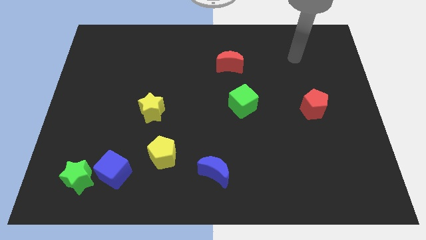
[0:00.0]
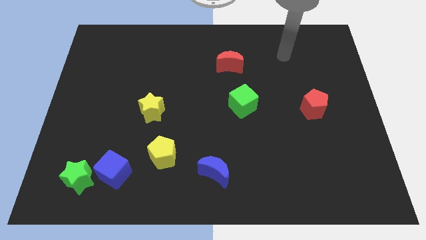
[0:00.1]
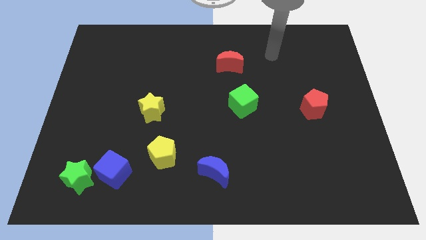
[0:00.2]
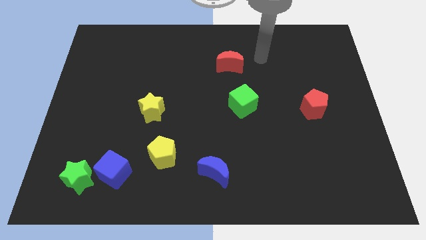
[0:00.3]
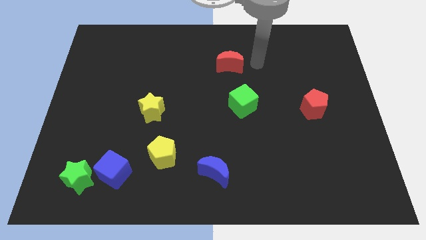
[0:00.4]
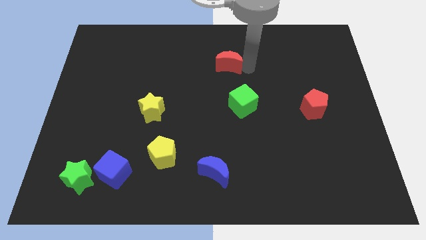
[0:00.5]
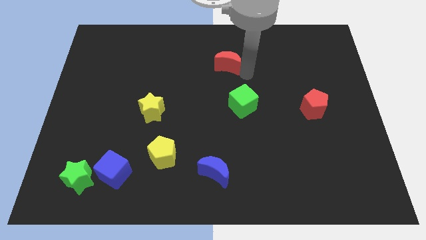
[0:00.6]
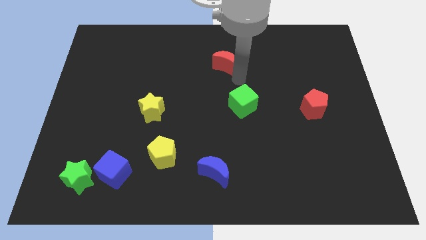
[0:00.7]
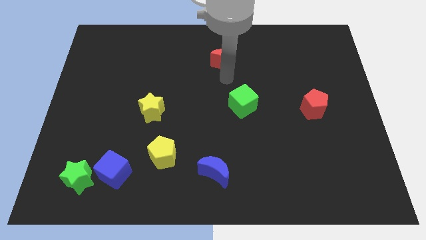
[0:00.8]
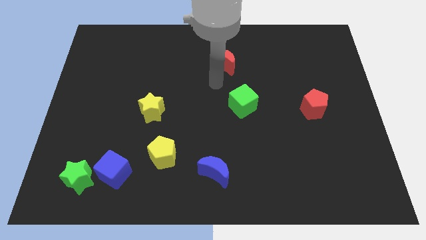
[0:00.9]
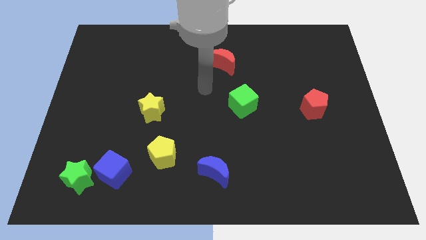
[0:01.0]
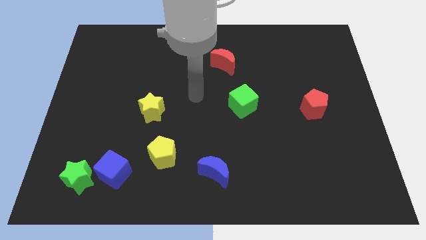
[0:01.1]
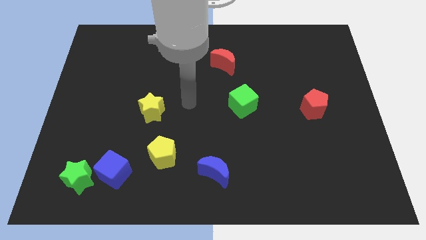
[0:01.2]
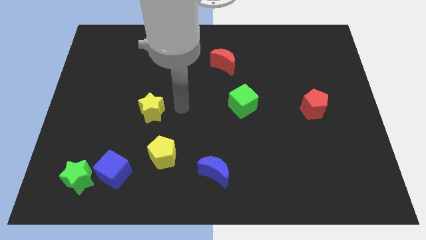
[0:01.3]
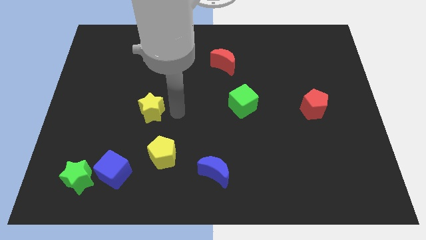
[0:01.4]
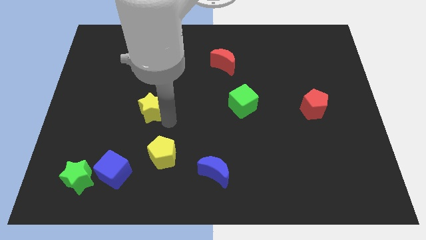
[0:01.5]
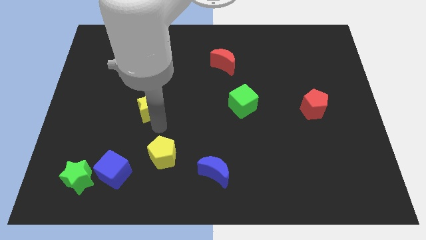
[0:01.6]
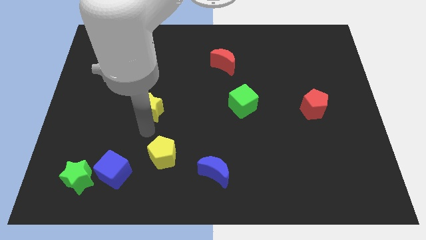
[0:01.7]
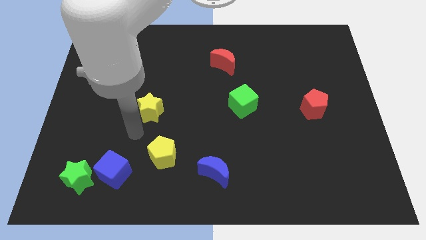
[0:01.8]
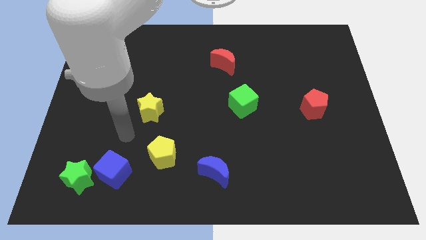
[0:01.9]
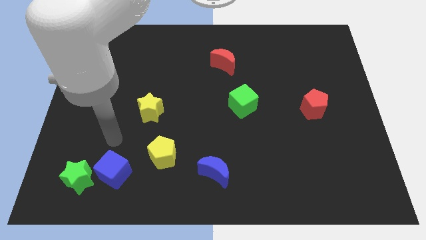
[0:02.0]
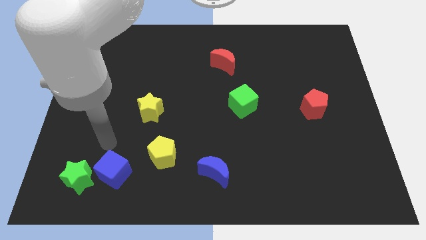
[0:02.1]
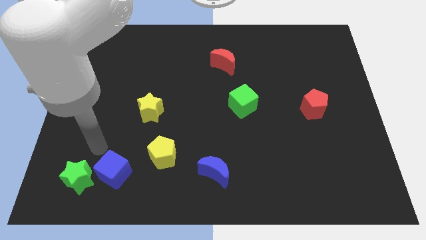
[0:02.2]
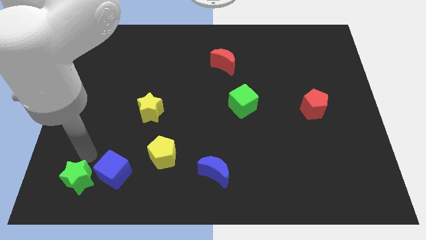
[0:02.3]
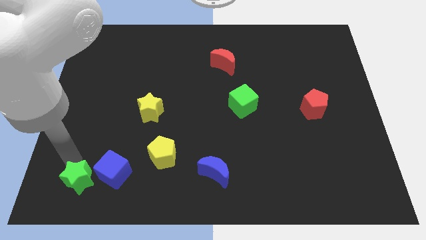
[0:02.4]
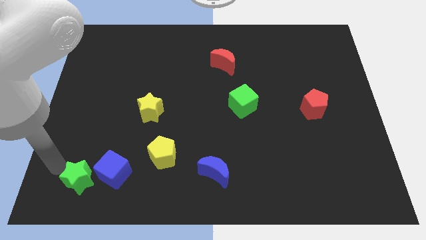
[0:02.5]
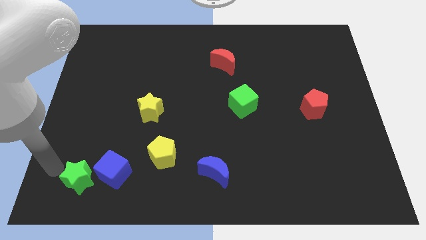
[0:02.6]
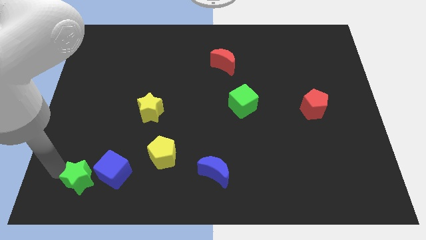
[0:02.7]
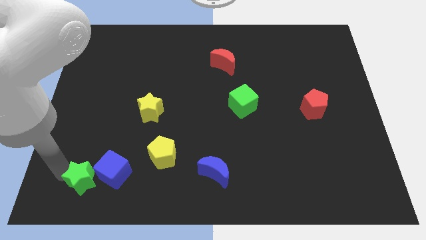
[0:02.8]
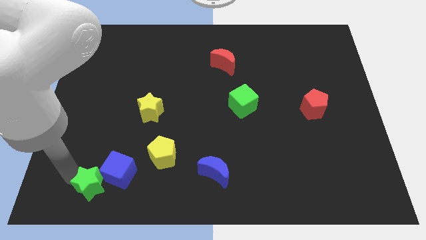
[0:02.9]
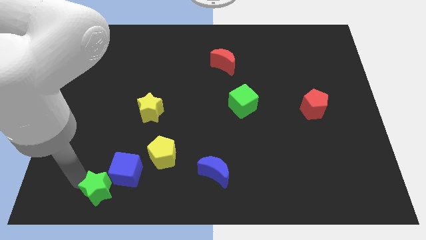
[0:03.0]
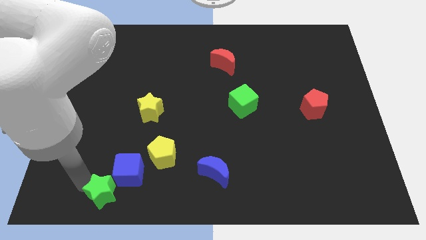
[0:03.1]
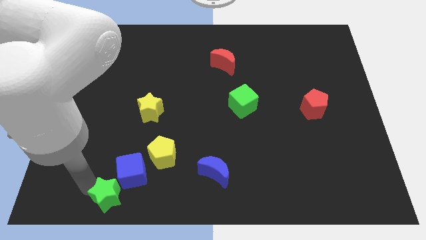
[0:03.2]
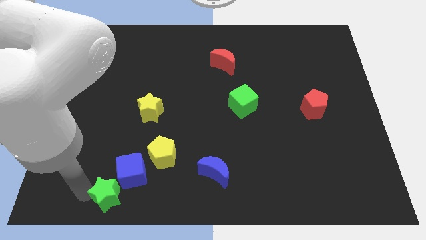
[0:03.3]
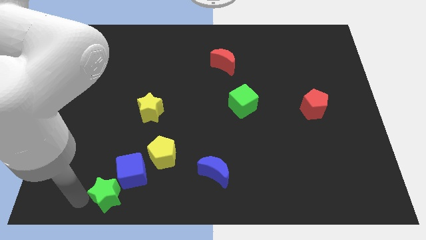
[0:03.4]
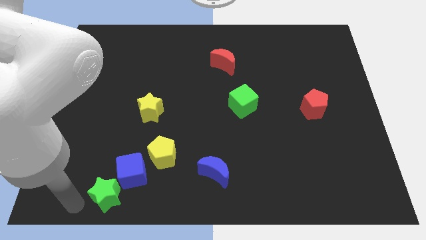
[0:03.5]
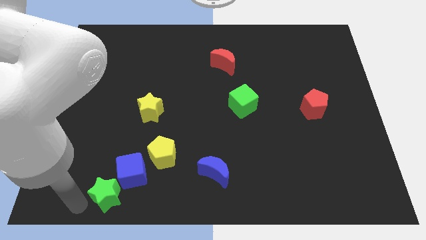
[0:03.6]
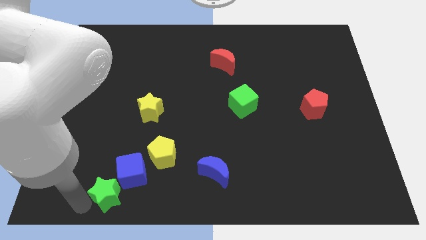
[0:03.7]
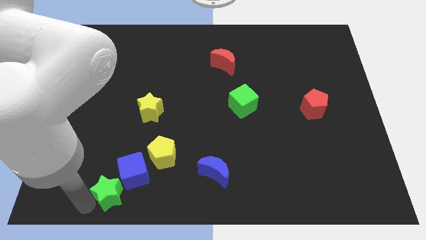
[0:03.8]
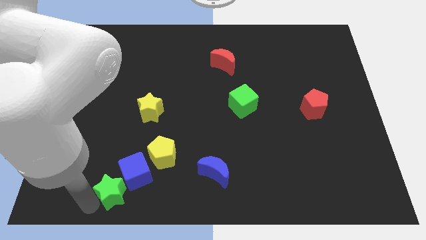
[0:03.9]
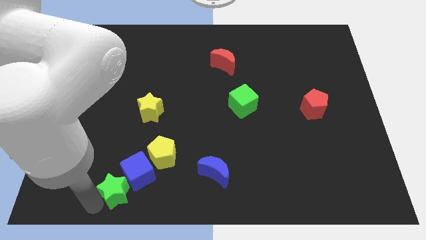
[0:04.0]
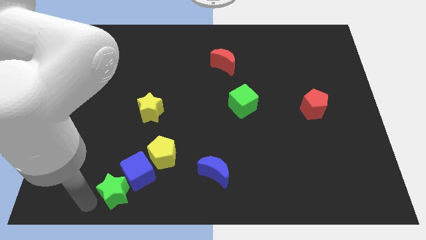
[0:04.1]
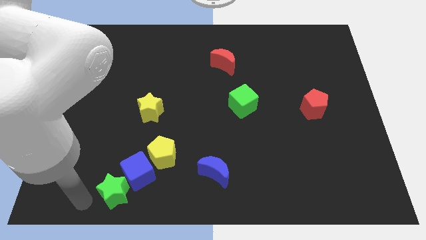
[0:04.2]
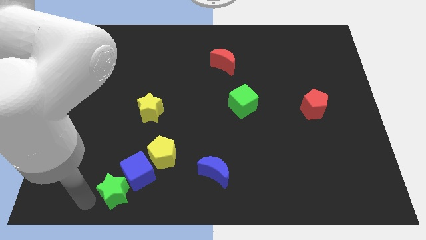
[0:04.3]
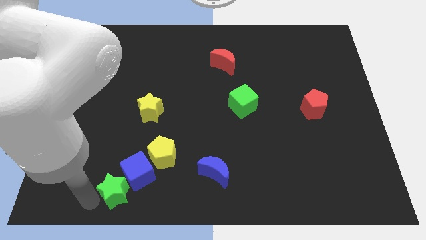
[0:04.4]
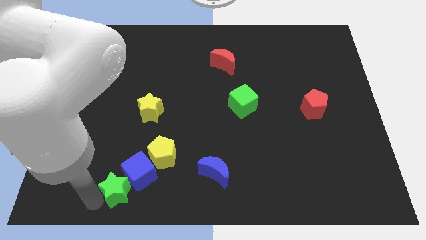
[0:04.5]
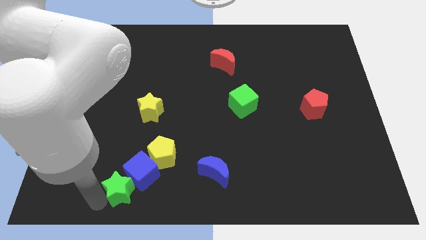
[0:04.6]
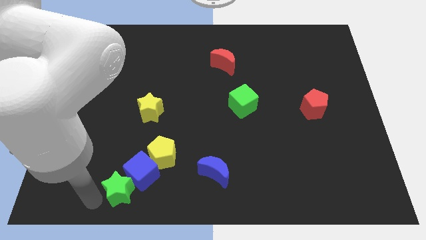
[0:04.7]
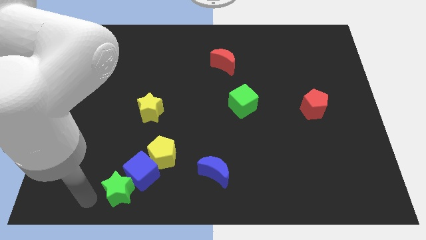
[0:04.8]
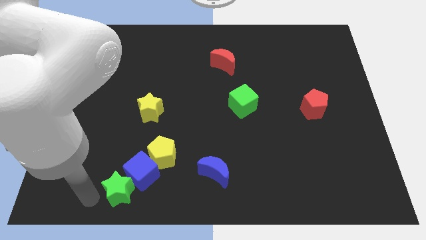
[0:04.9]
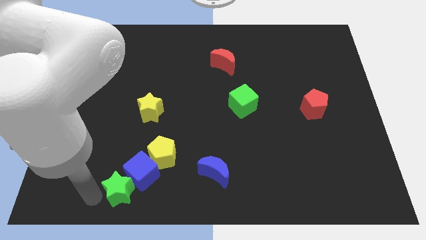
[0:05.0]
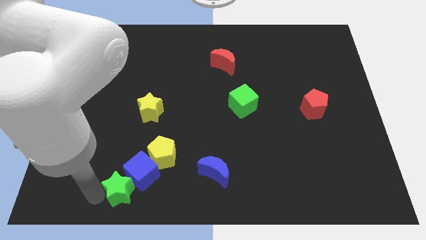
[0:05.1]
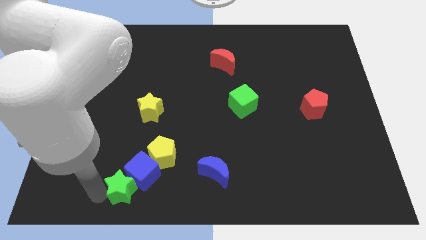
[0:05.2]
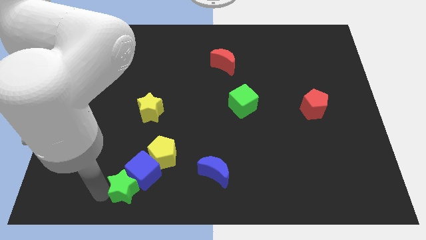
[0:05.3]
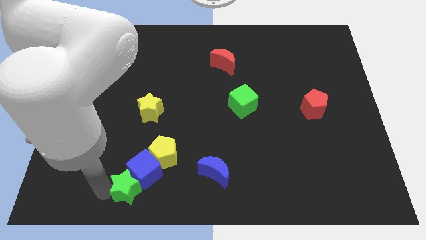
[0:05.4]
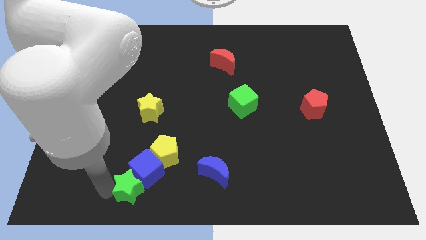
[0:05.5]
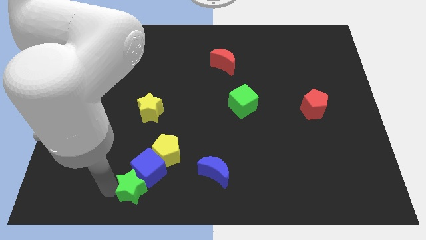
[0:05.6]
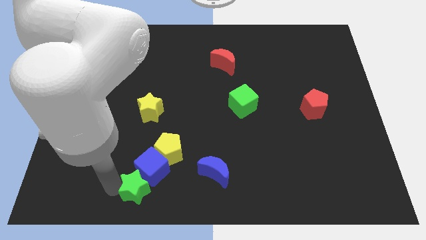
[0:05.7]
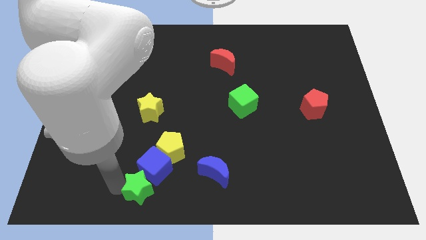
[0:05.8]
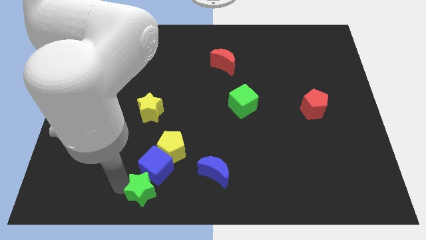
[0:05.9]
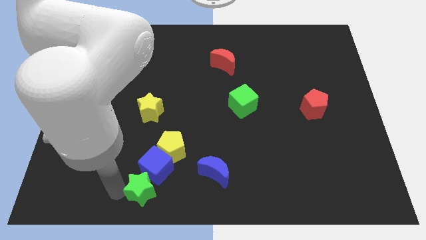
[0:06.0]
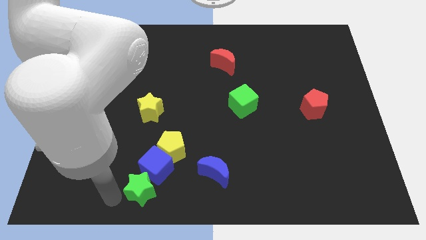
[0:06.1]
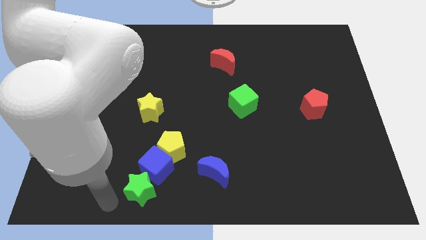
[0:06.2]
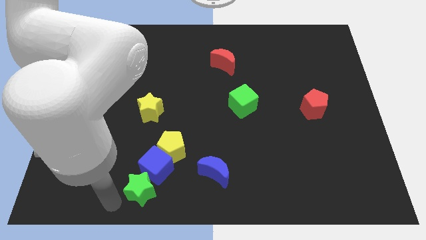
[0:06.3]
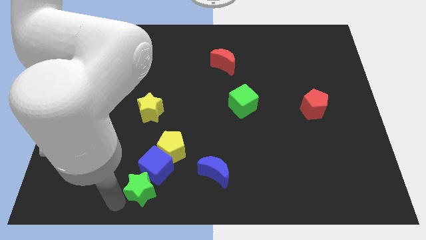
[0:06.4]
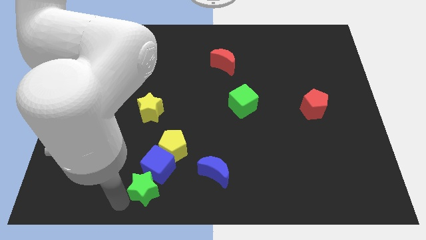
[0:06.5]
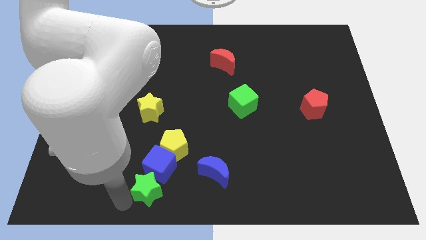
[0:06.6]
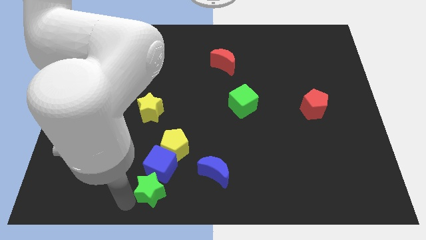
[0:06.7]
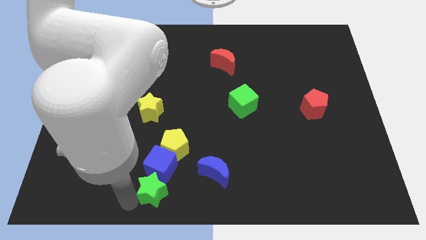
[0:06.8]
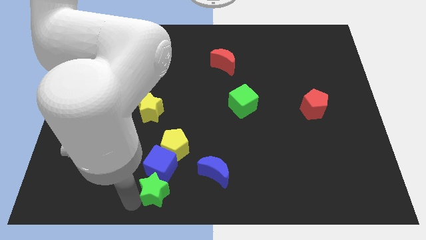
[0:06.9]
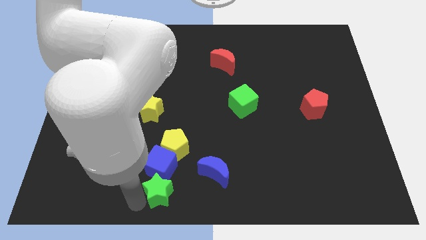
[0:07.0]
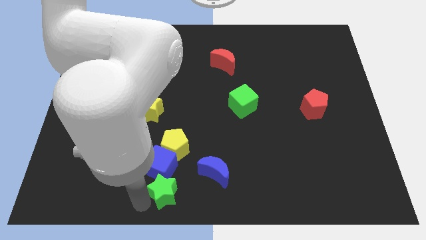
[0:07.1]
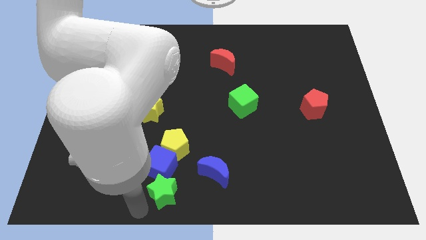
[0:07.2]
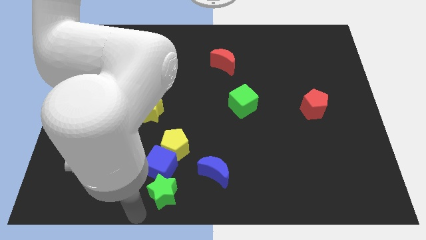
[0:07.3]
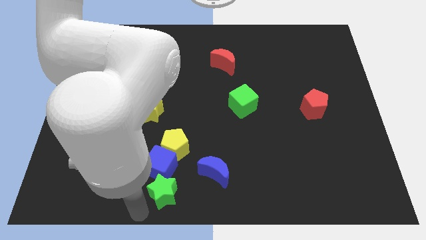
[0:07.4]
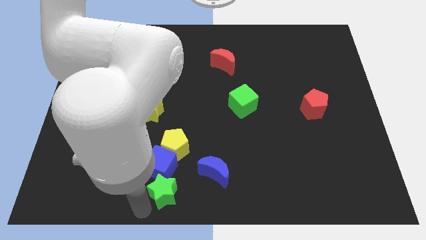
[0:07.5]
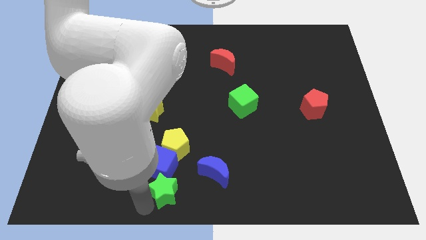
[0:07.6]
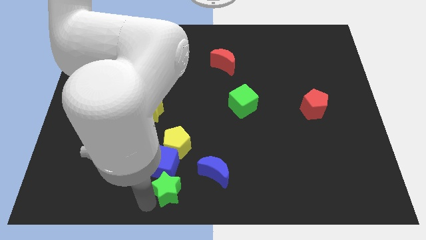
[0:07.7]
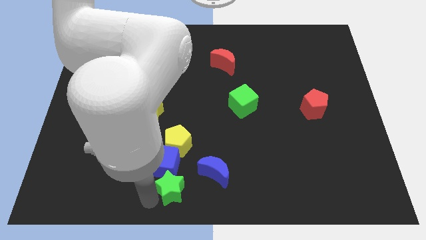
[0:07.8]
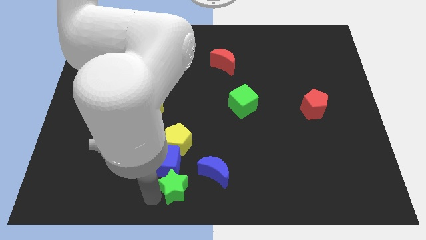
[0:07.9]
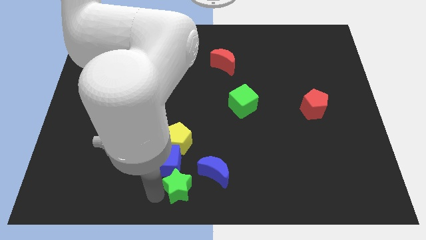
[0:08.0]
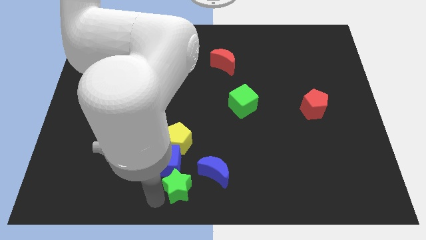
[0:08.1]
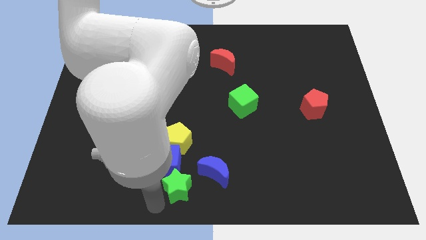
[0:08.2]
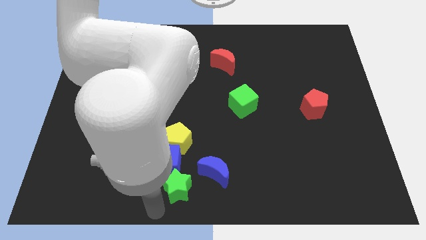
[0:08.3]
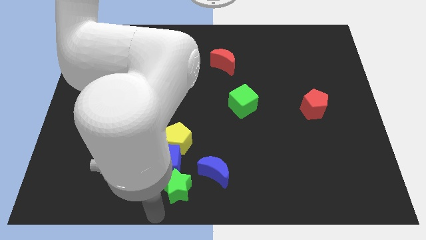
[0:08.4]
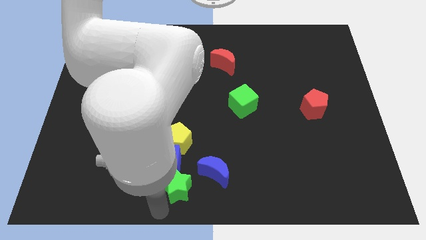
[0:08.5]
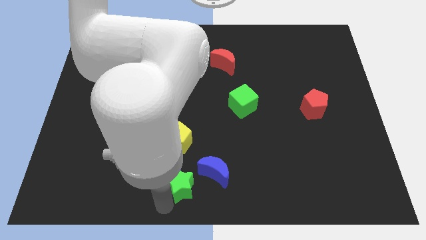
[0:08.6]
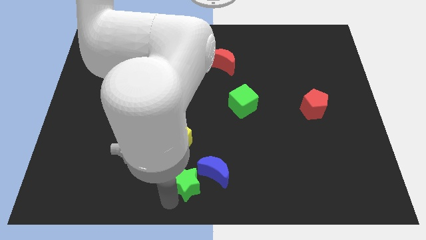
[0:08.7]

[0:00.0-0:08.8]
put the green star close to the blue moon
